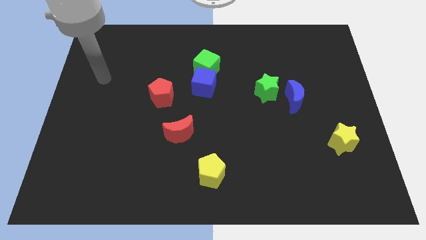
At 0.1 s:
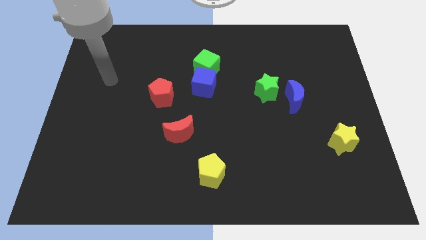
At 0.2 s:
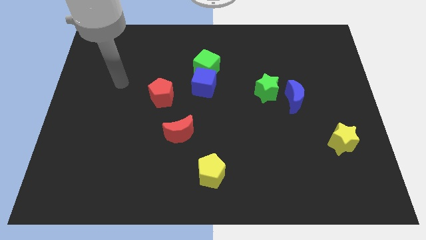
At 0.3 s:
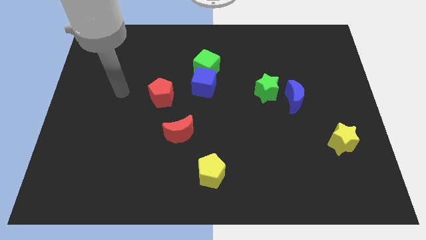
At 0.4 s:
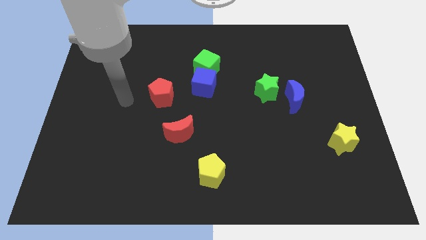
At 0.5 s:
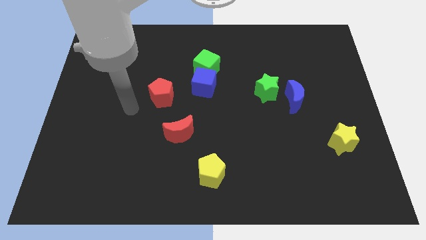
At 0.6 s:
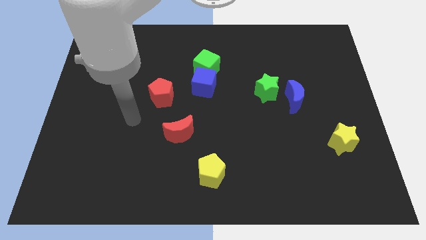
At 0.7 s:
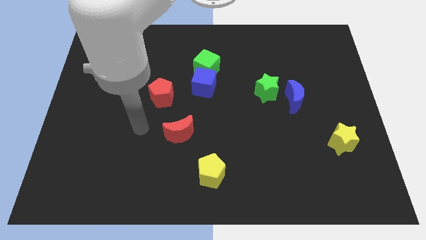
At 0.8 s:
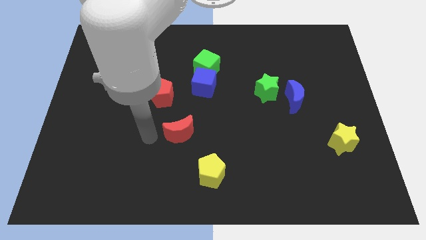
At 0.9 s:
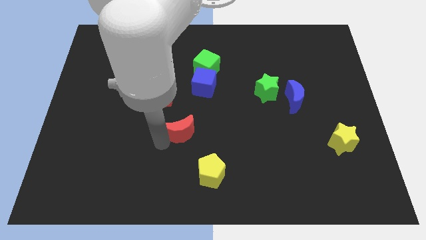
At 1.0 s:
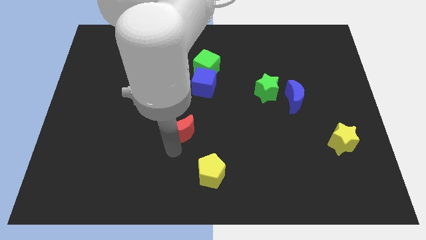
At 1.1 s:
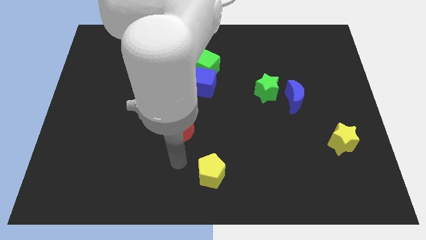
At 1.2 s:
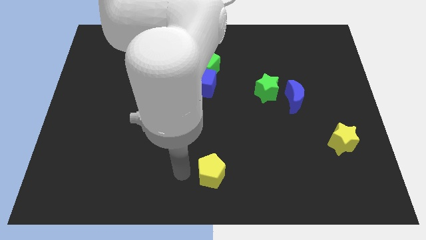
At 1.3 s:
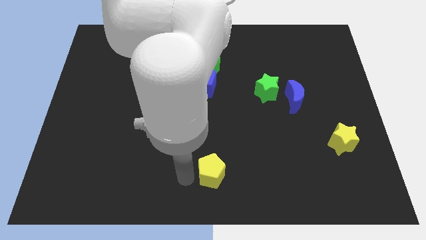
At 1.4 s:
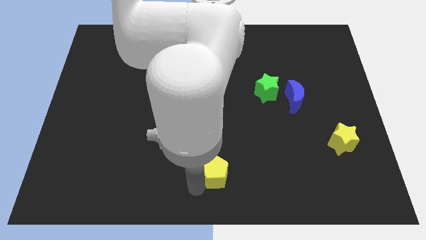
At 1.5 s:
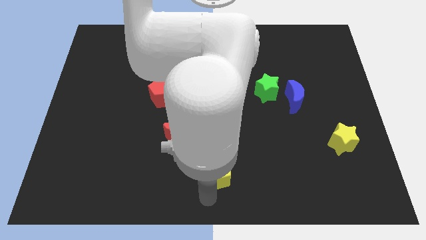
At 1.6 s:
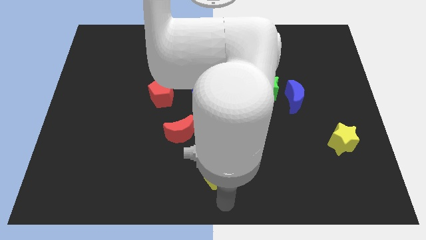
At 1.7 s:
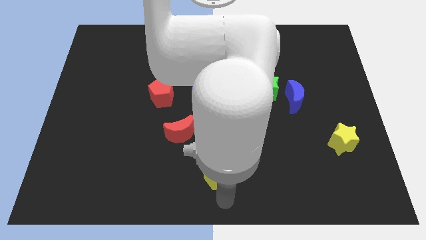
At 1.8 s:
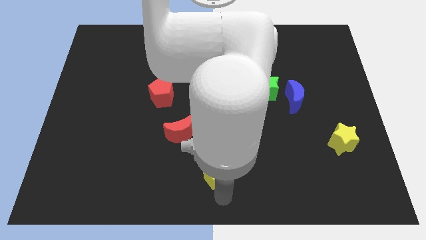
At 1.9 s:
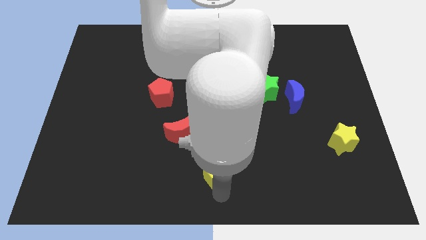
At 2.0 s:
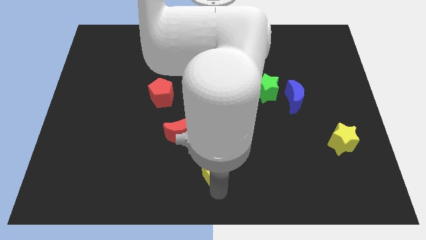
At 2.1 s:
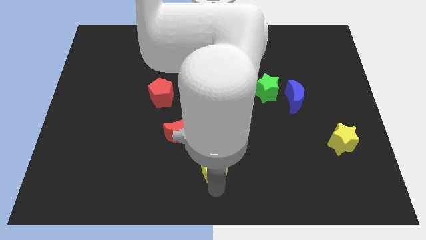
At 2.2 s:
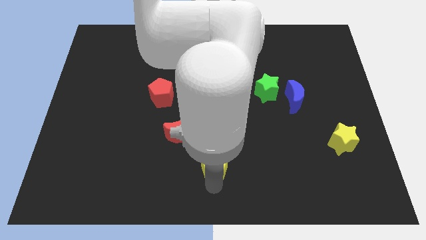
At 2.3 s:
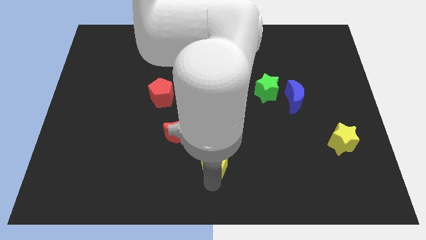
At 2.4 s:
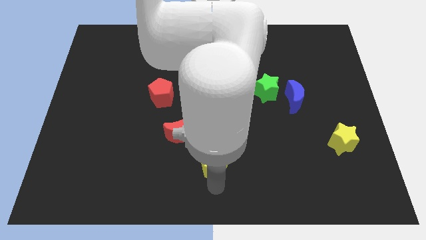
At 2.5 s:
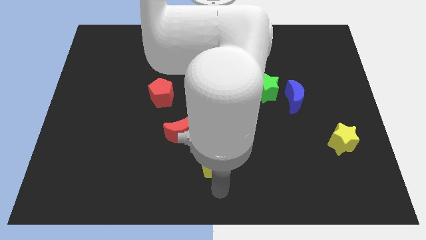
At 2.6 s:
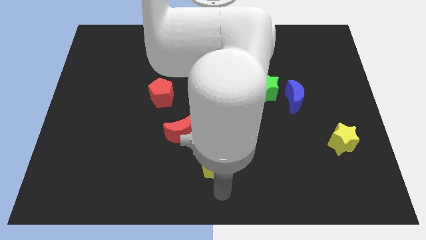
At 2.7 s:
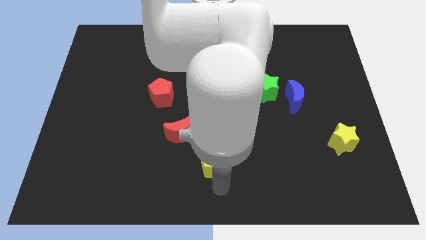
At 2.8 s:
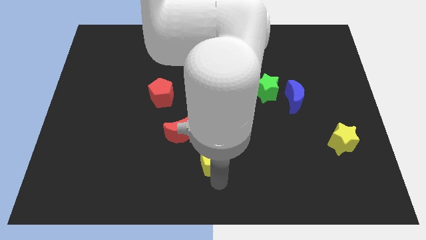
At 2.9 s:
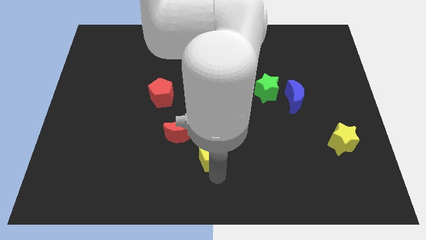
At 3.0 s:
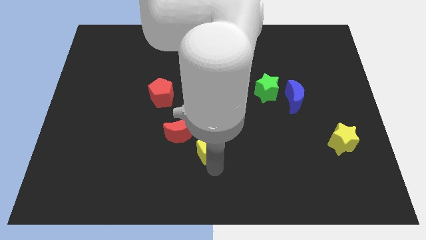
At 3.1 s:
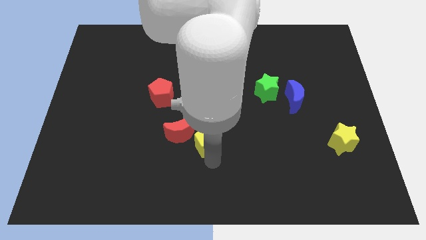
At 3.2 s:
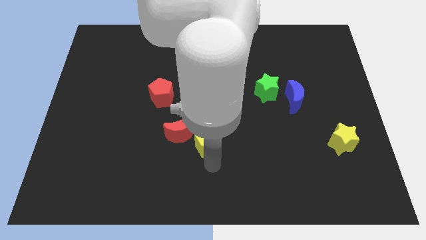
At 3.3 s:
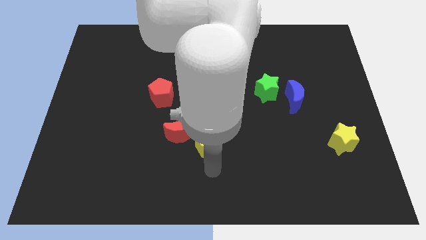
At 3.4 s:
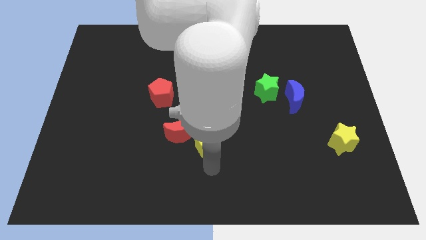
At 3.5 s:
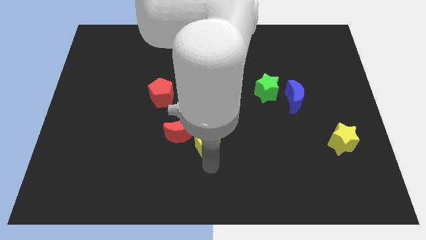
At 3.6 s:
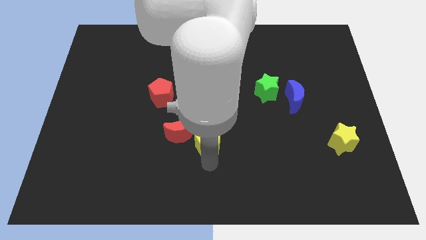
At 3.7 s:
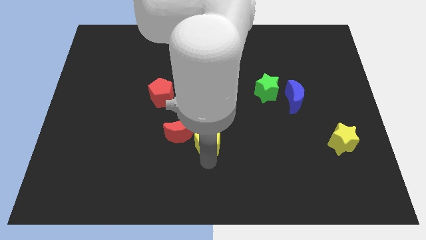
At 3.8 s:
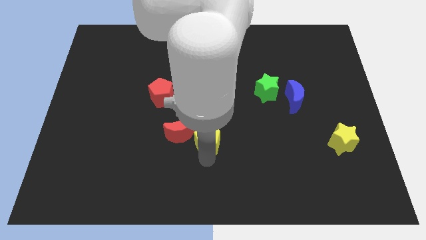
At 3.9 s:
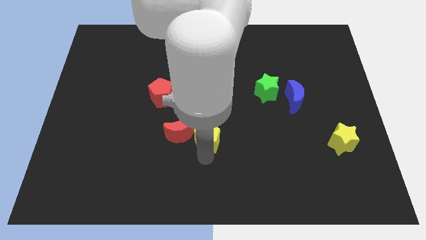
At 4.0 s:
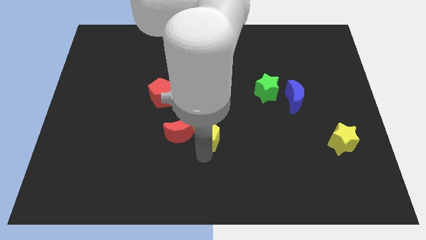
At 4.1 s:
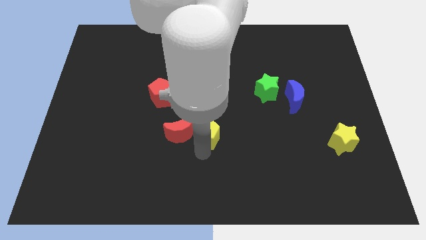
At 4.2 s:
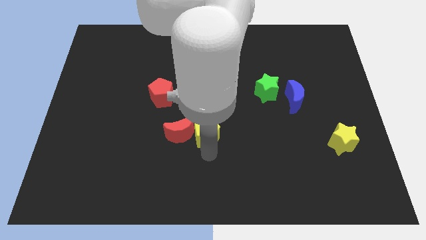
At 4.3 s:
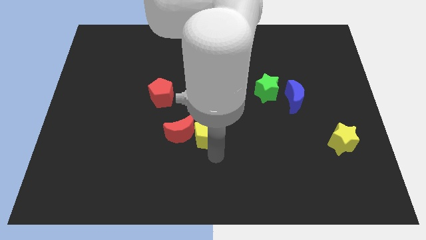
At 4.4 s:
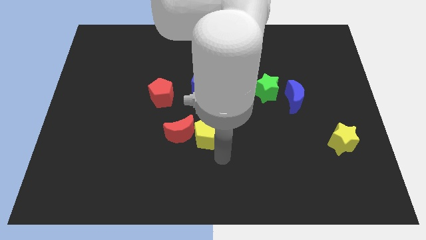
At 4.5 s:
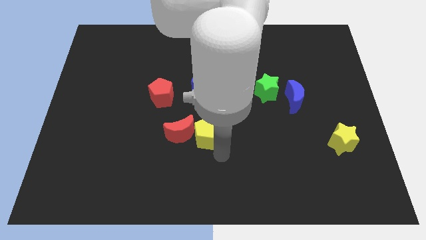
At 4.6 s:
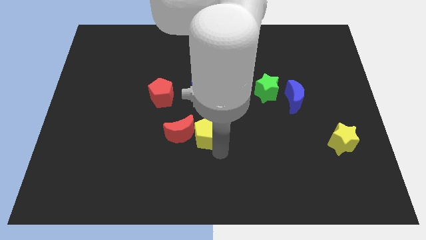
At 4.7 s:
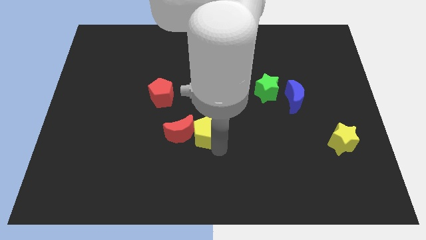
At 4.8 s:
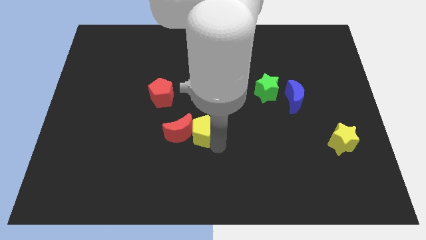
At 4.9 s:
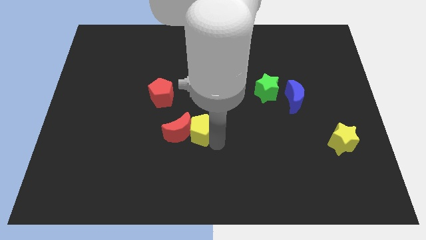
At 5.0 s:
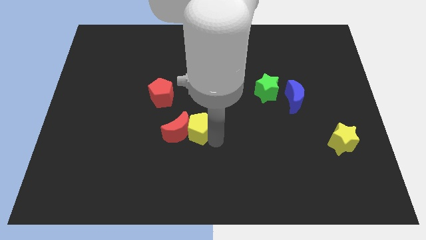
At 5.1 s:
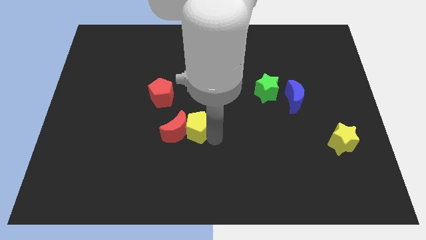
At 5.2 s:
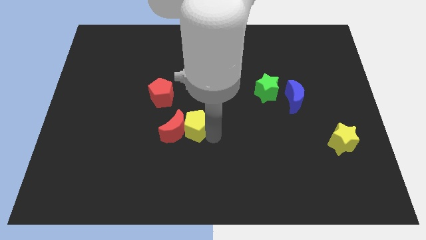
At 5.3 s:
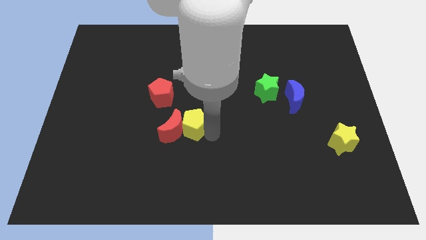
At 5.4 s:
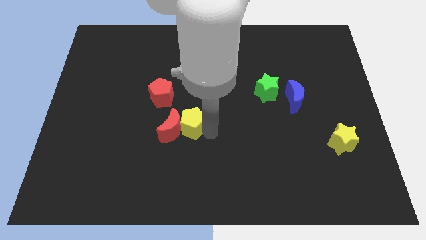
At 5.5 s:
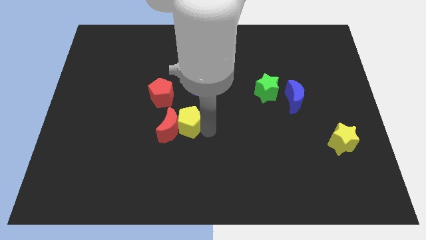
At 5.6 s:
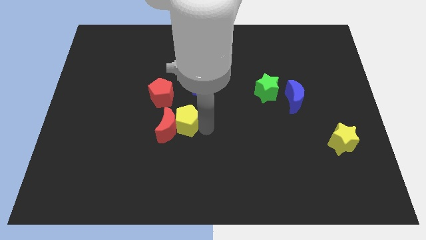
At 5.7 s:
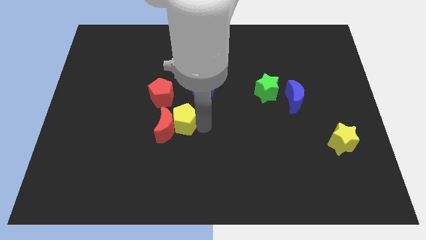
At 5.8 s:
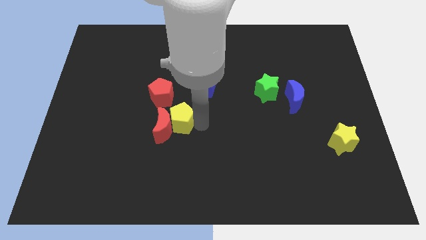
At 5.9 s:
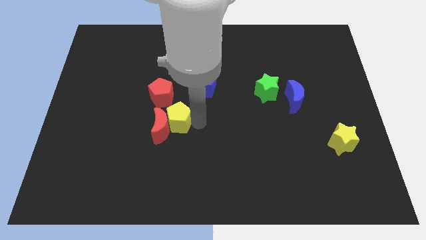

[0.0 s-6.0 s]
move the yellow pentagon to the bottom left side of the blue cube

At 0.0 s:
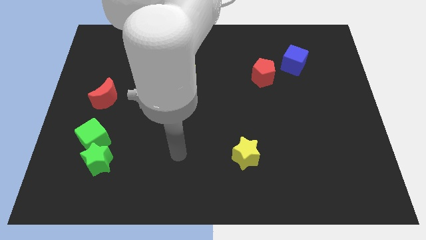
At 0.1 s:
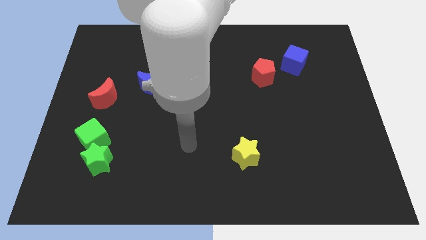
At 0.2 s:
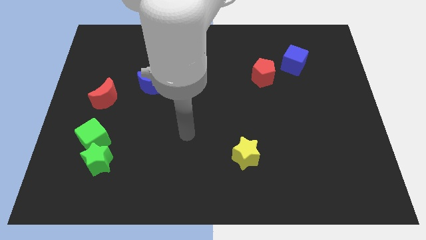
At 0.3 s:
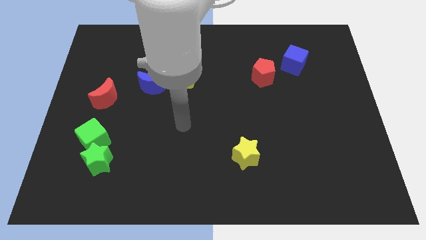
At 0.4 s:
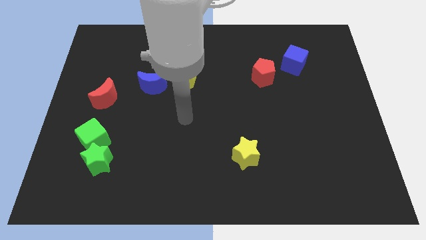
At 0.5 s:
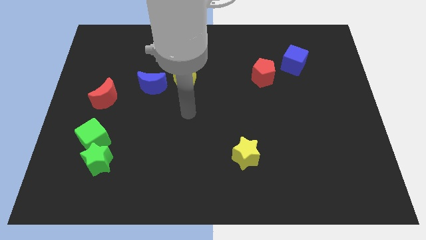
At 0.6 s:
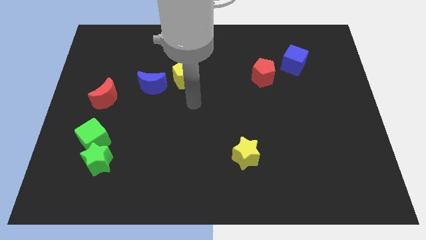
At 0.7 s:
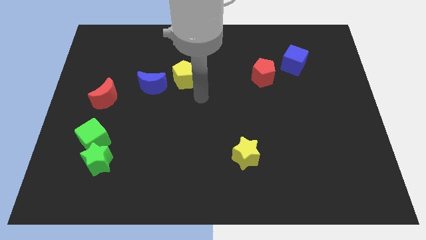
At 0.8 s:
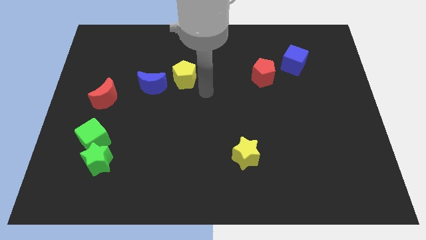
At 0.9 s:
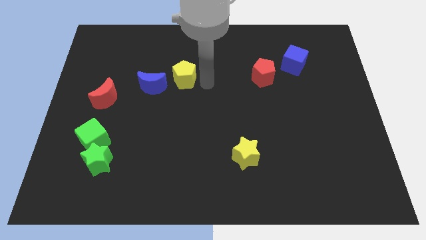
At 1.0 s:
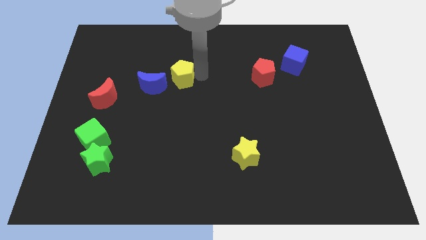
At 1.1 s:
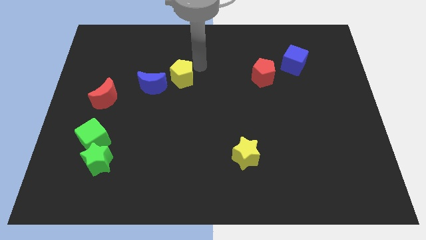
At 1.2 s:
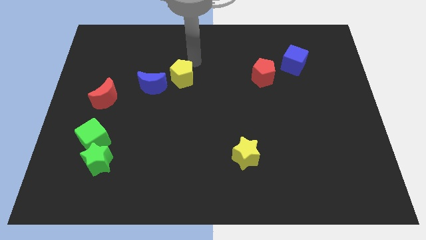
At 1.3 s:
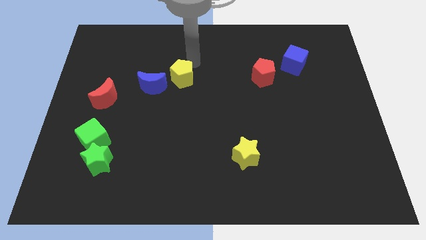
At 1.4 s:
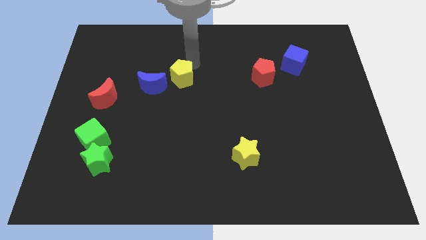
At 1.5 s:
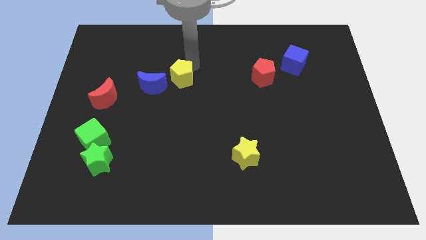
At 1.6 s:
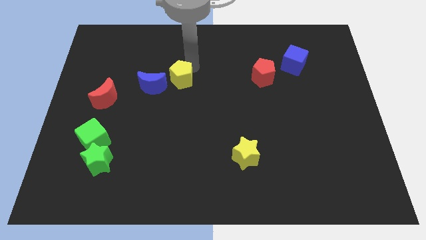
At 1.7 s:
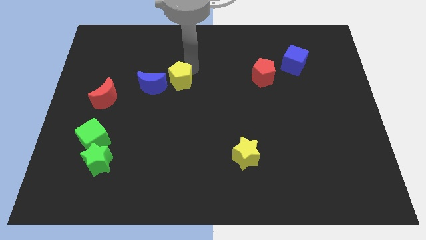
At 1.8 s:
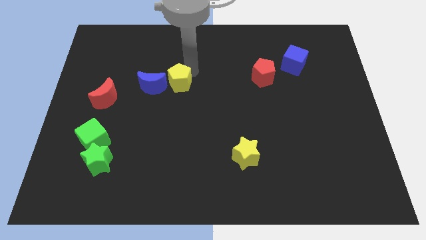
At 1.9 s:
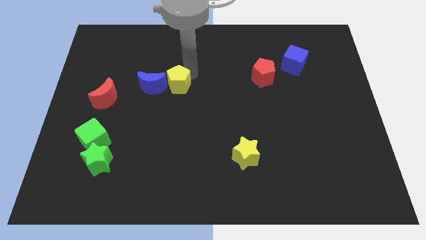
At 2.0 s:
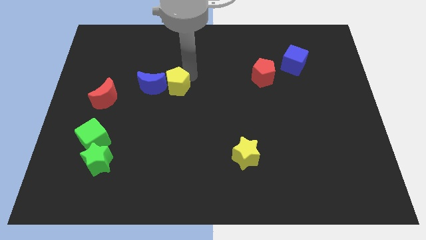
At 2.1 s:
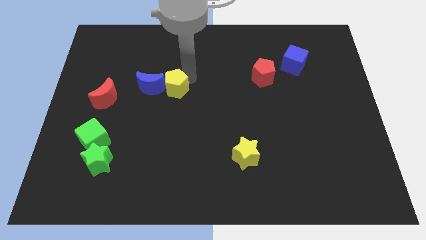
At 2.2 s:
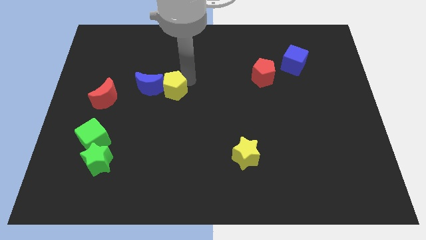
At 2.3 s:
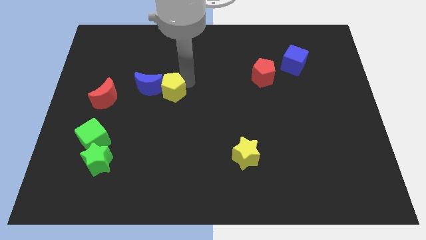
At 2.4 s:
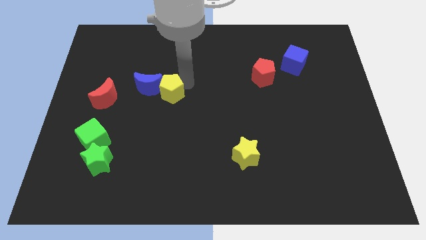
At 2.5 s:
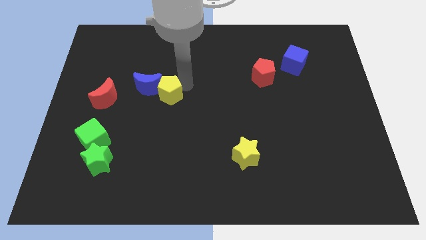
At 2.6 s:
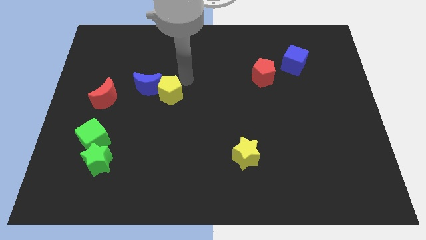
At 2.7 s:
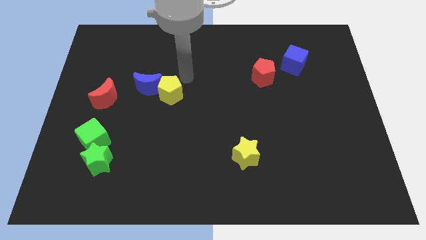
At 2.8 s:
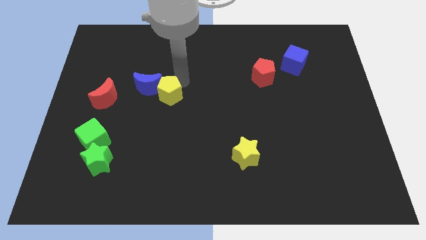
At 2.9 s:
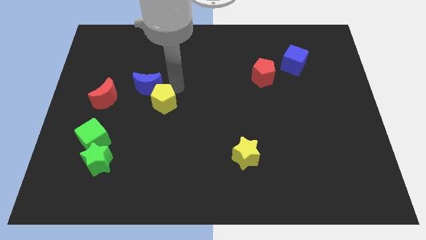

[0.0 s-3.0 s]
put the yellow pentagon below the blue moon
